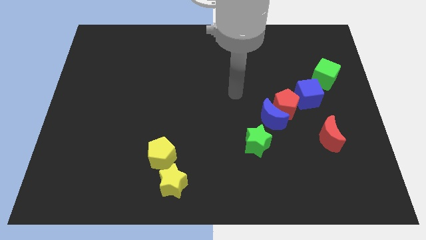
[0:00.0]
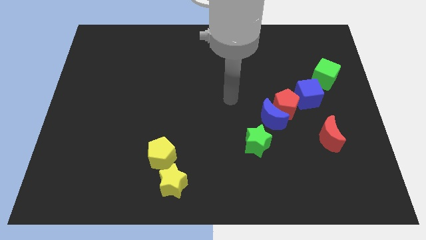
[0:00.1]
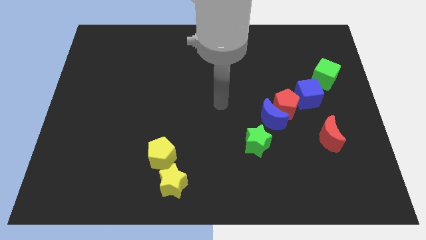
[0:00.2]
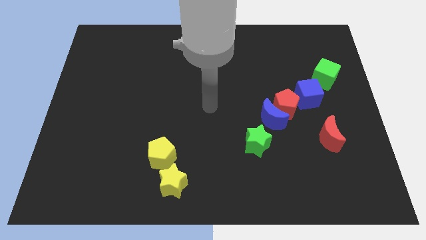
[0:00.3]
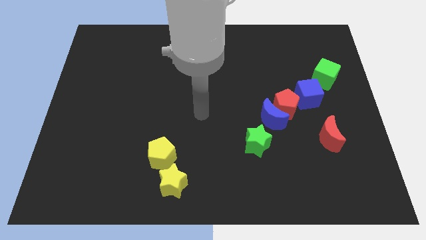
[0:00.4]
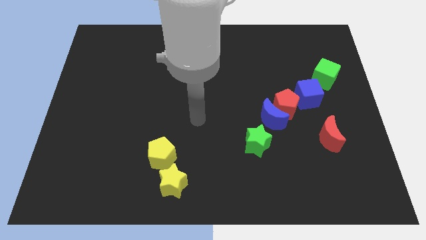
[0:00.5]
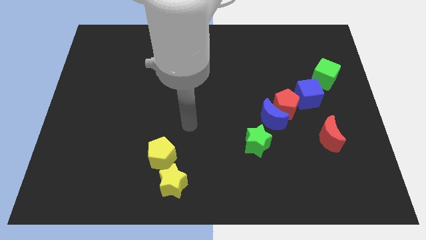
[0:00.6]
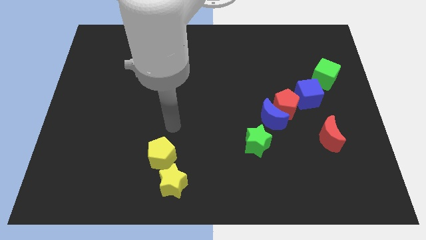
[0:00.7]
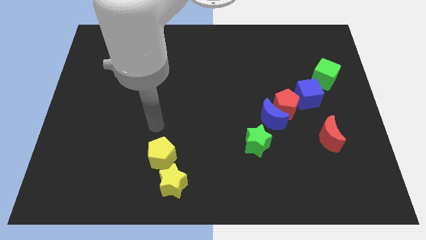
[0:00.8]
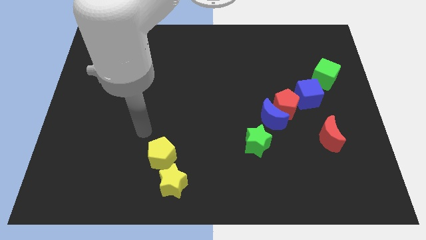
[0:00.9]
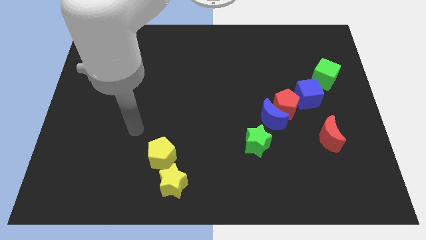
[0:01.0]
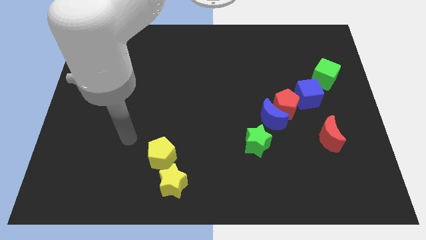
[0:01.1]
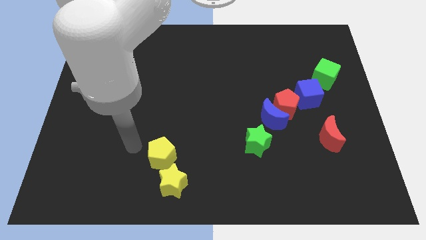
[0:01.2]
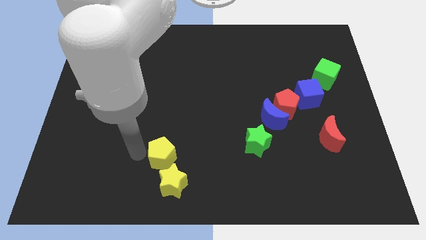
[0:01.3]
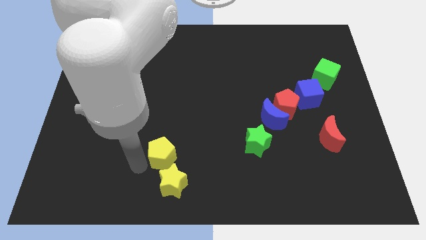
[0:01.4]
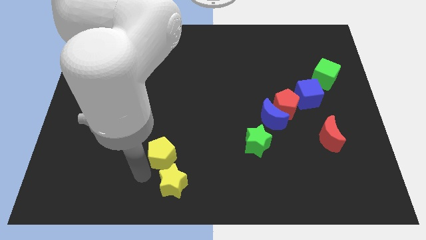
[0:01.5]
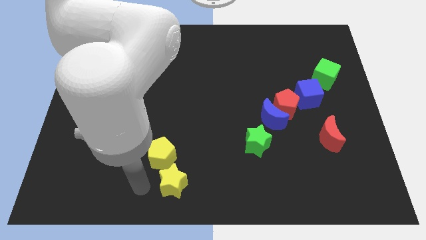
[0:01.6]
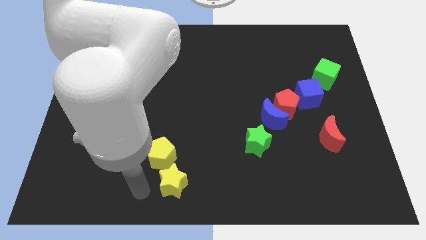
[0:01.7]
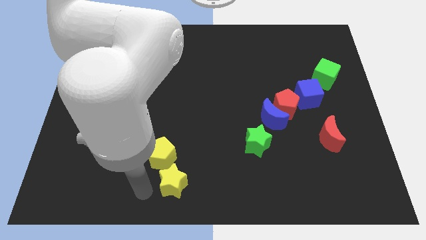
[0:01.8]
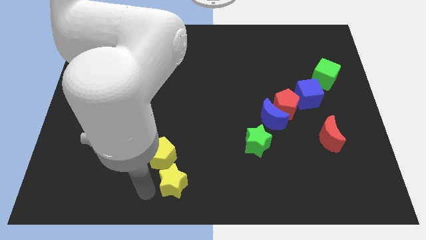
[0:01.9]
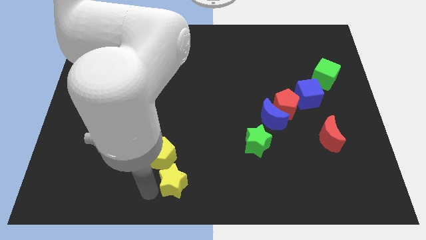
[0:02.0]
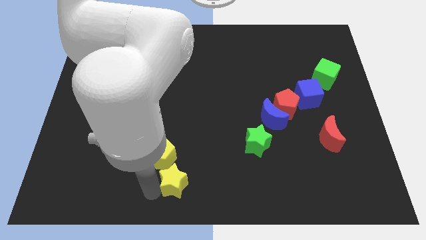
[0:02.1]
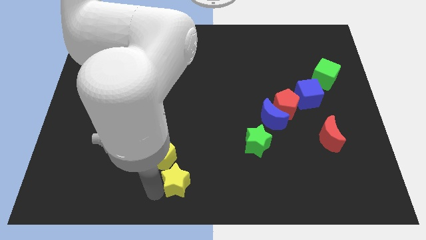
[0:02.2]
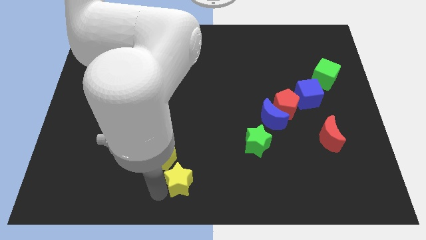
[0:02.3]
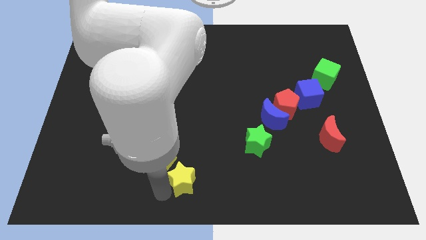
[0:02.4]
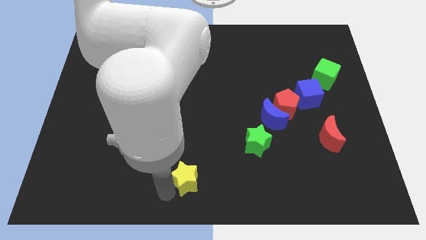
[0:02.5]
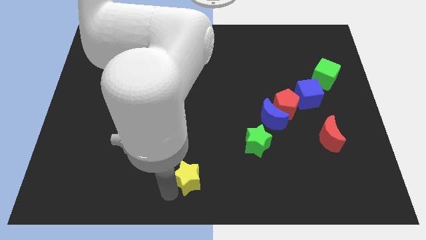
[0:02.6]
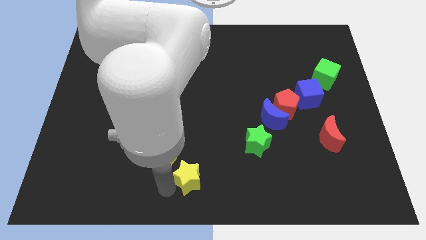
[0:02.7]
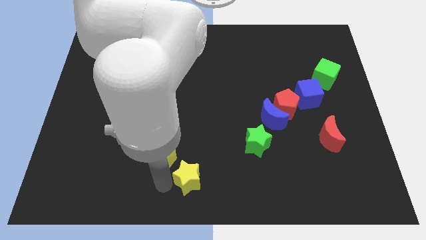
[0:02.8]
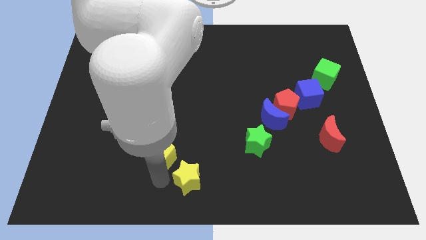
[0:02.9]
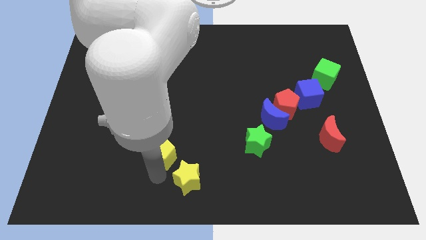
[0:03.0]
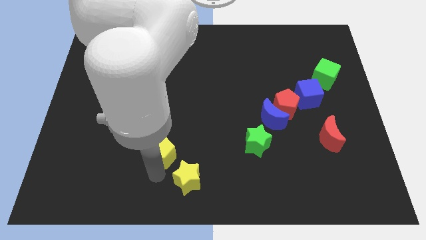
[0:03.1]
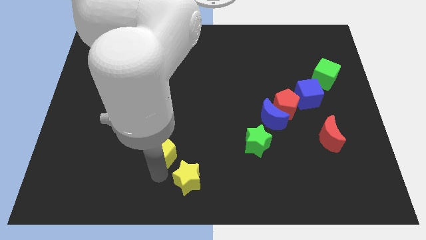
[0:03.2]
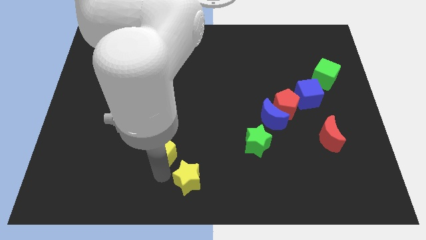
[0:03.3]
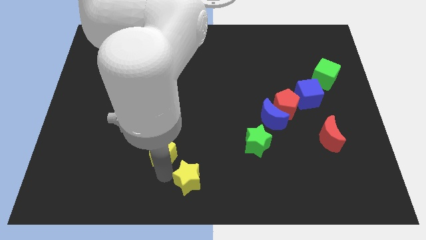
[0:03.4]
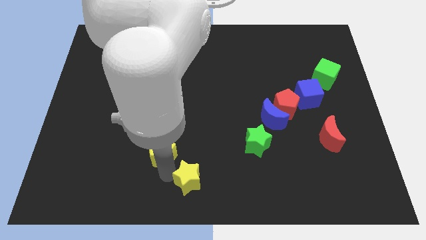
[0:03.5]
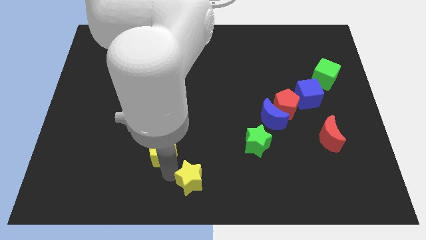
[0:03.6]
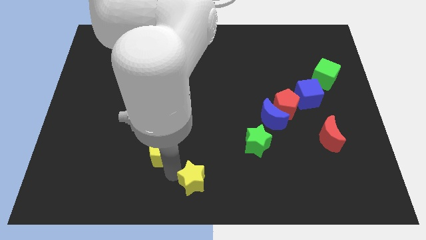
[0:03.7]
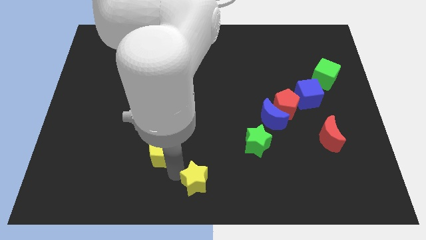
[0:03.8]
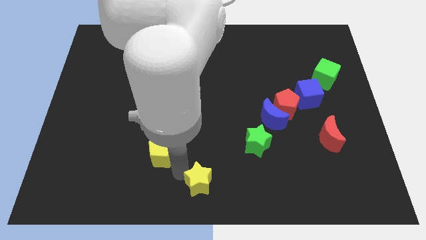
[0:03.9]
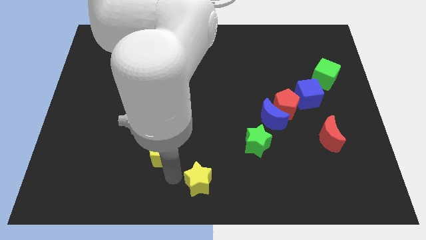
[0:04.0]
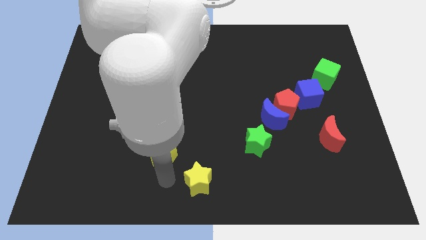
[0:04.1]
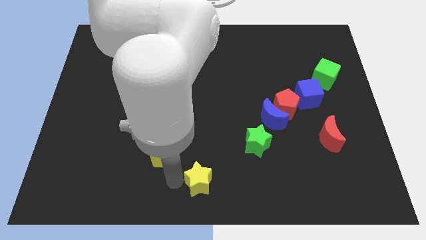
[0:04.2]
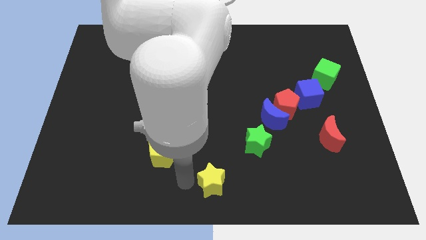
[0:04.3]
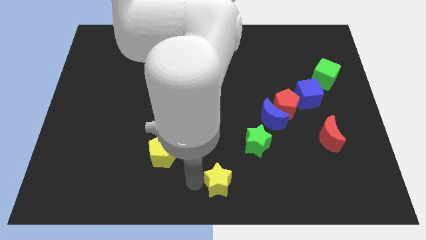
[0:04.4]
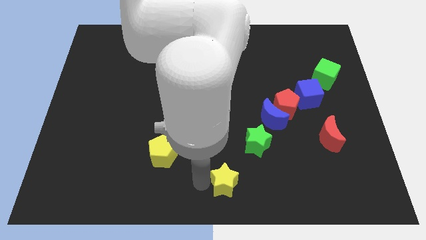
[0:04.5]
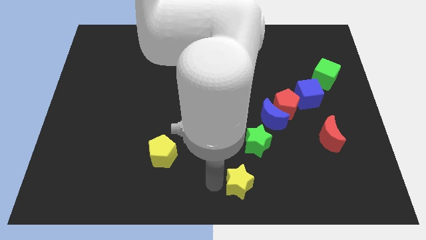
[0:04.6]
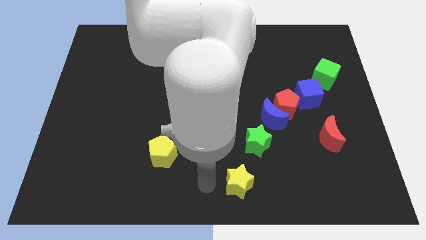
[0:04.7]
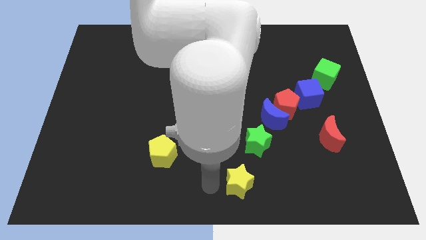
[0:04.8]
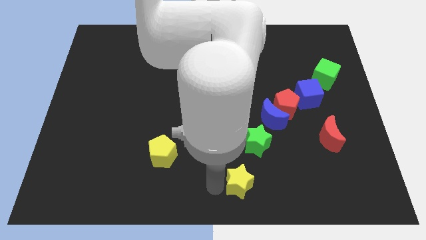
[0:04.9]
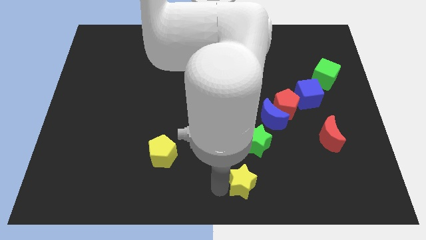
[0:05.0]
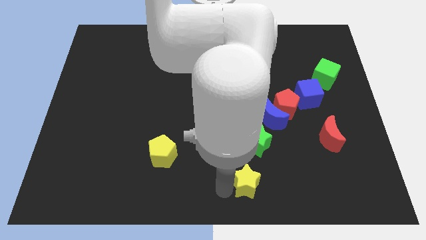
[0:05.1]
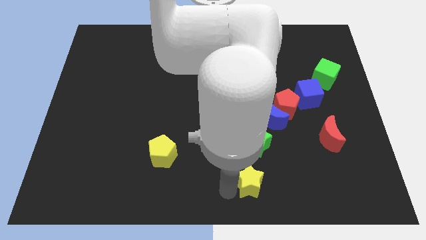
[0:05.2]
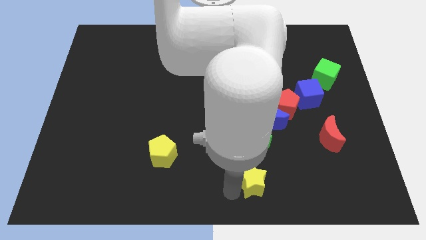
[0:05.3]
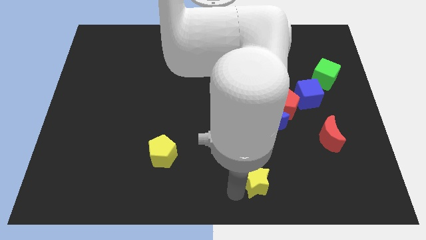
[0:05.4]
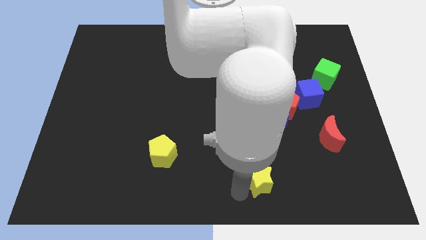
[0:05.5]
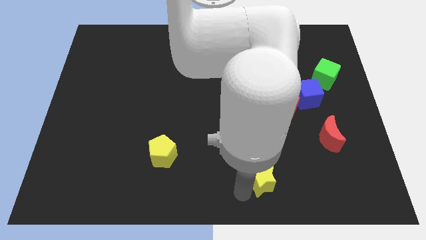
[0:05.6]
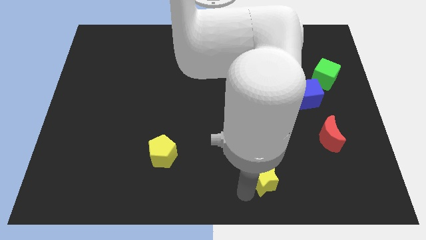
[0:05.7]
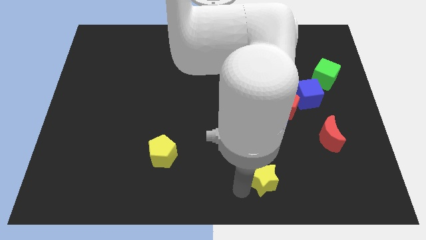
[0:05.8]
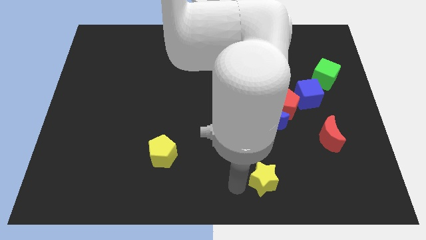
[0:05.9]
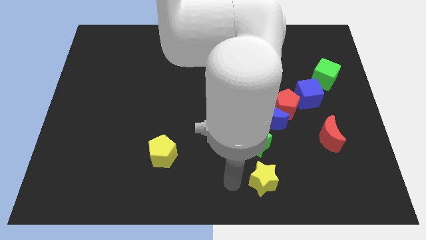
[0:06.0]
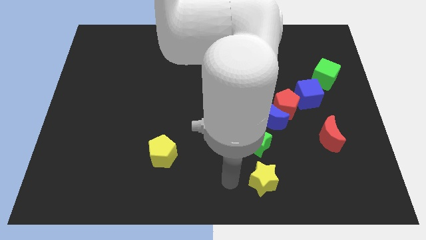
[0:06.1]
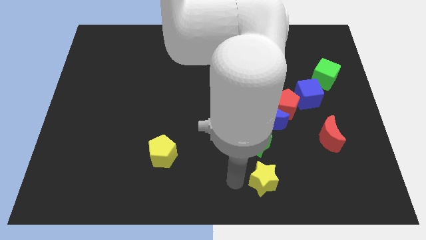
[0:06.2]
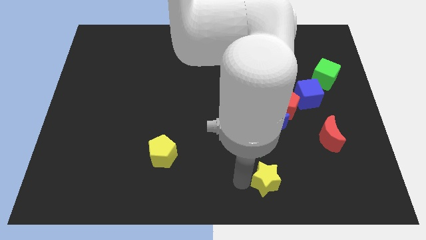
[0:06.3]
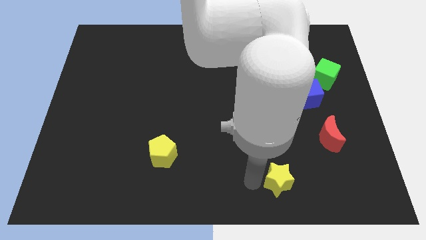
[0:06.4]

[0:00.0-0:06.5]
move the yellow star right

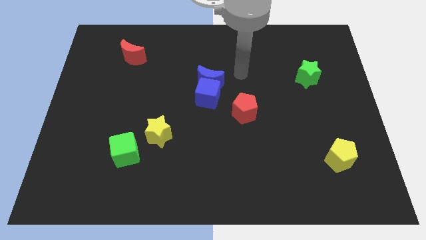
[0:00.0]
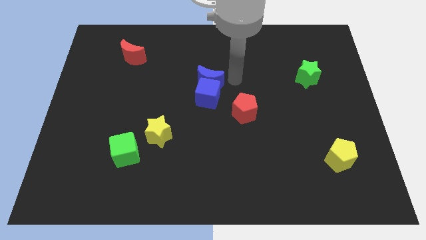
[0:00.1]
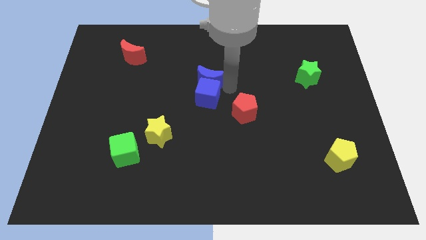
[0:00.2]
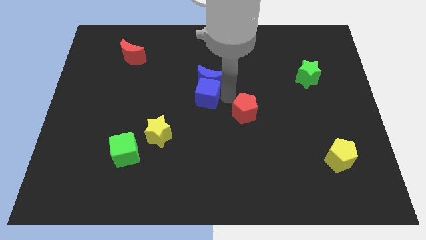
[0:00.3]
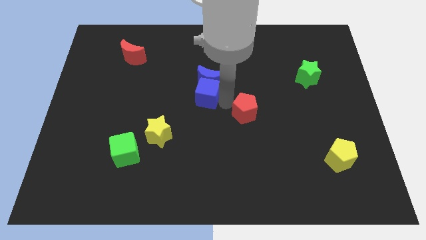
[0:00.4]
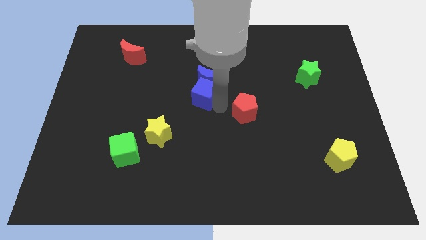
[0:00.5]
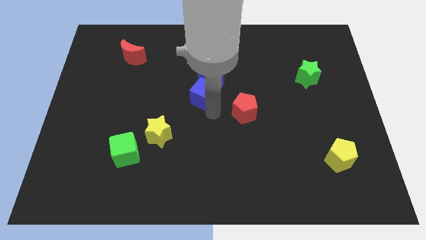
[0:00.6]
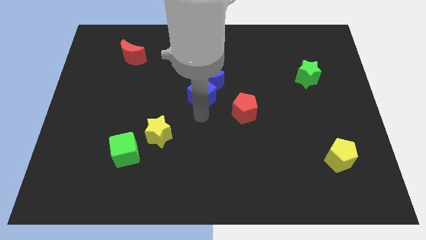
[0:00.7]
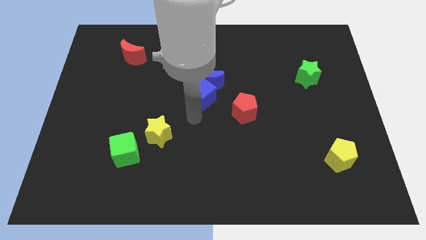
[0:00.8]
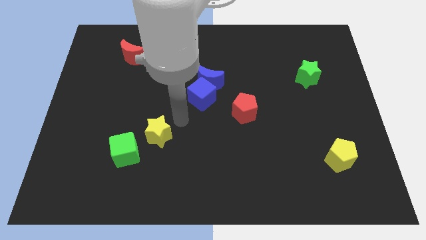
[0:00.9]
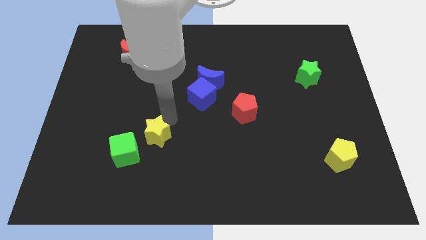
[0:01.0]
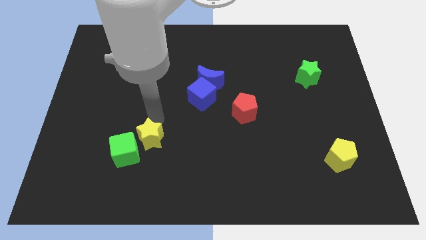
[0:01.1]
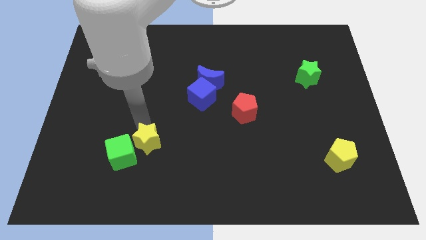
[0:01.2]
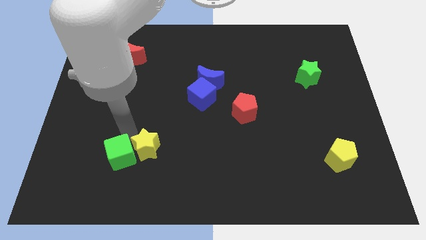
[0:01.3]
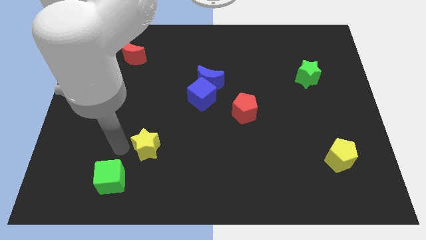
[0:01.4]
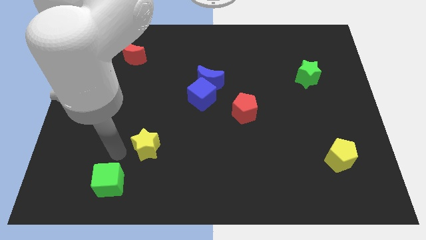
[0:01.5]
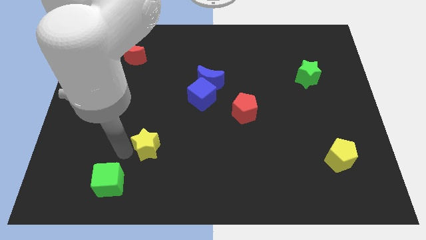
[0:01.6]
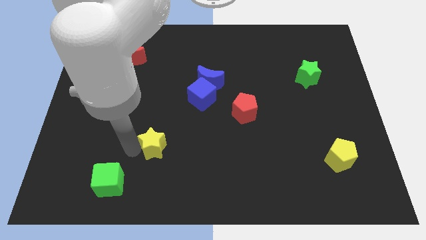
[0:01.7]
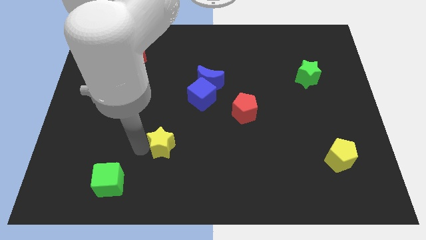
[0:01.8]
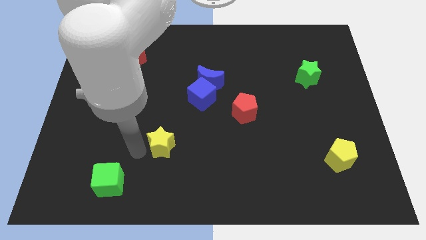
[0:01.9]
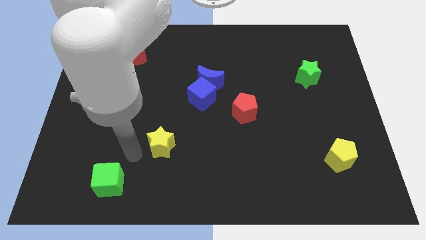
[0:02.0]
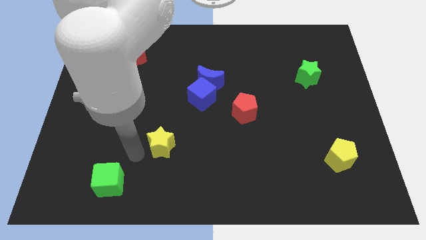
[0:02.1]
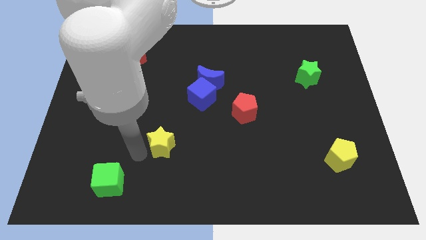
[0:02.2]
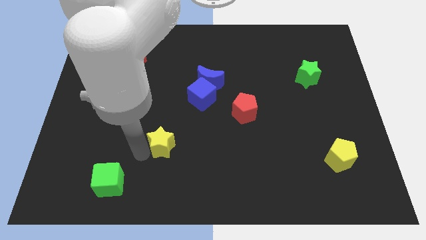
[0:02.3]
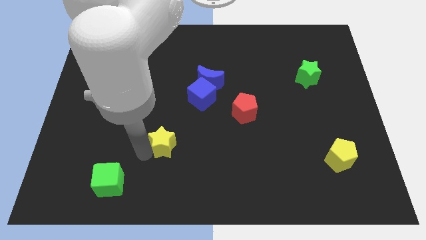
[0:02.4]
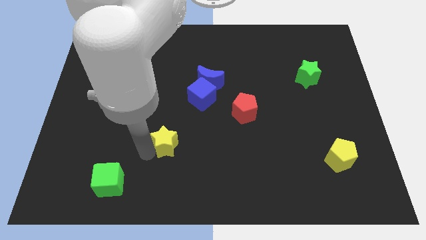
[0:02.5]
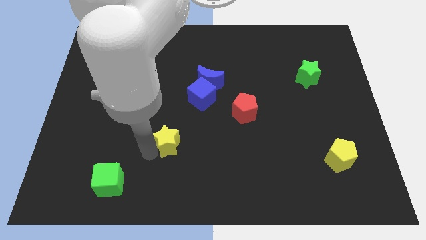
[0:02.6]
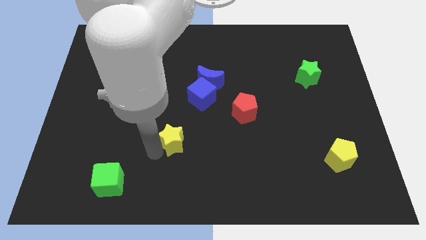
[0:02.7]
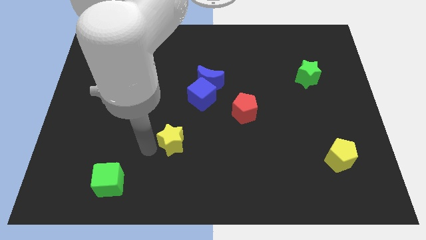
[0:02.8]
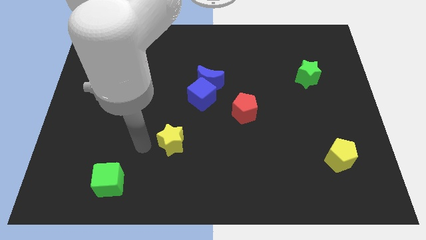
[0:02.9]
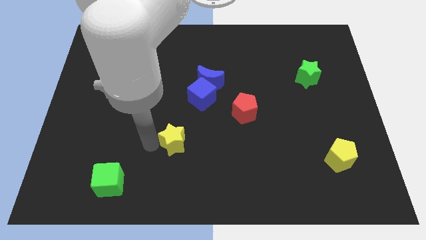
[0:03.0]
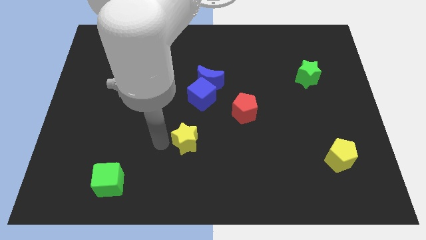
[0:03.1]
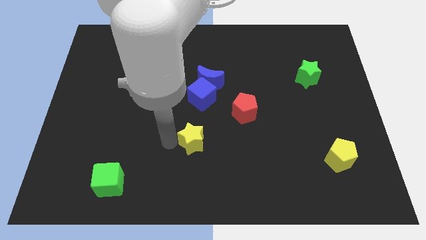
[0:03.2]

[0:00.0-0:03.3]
slide the yellow star right somewhat
